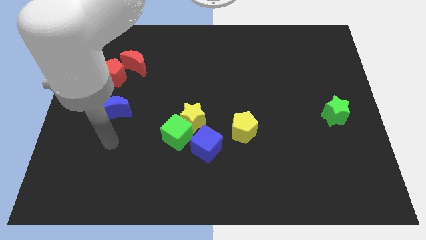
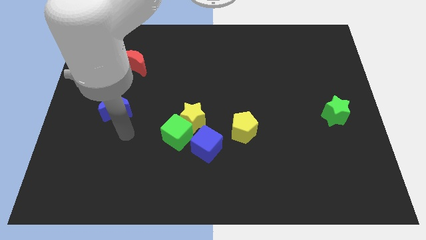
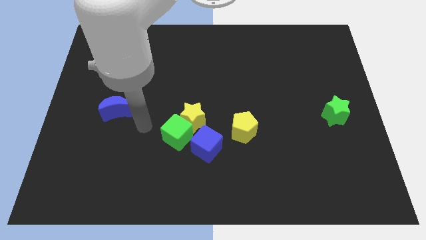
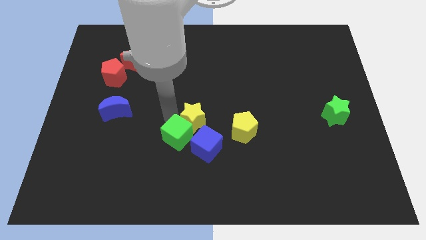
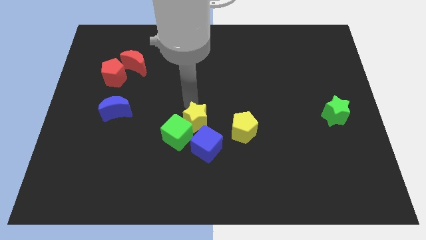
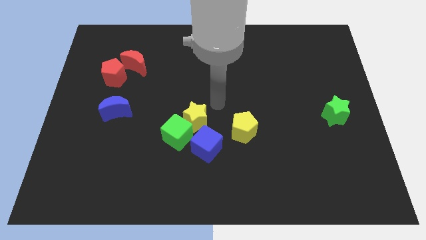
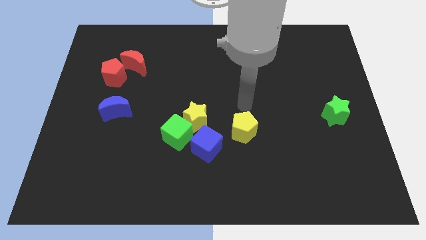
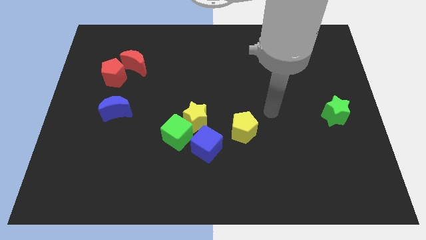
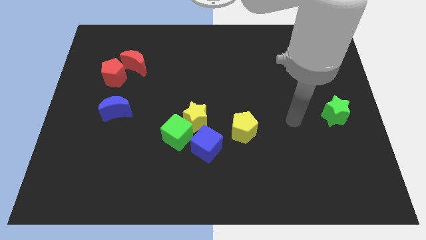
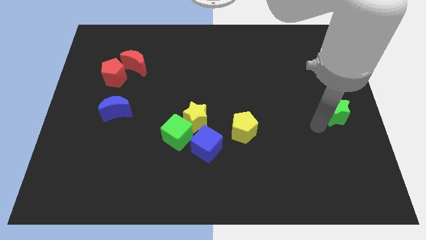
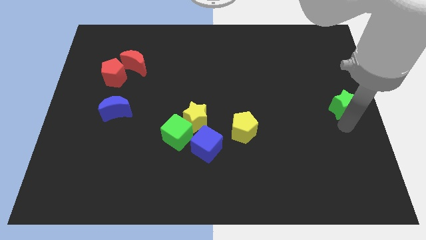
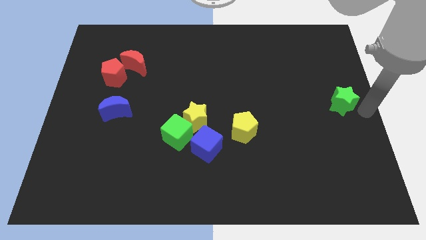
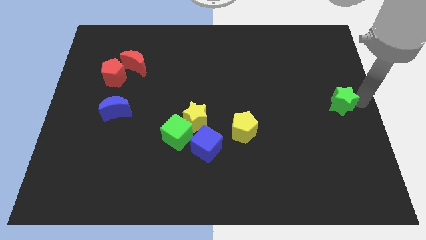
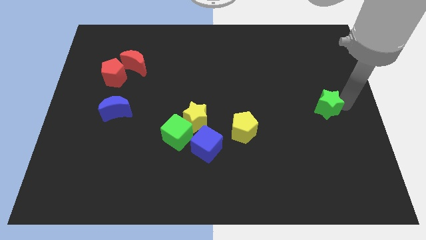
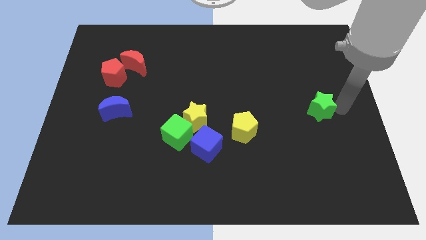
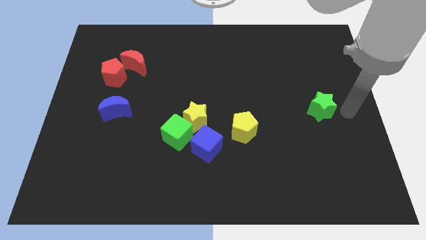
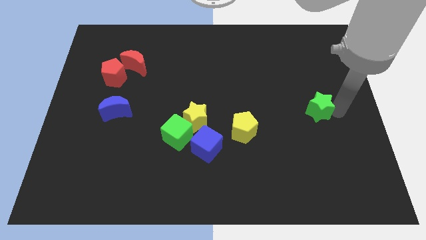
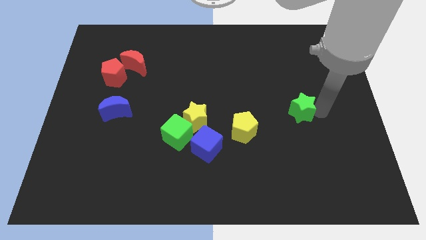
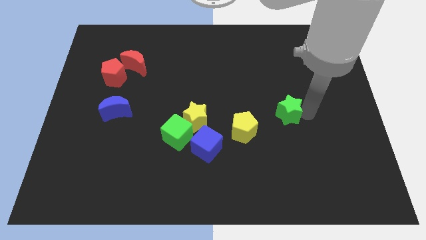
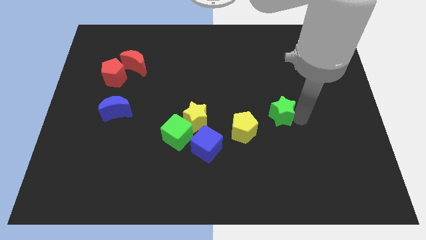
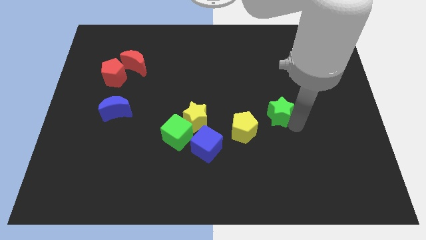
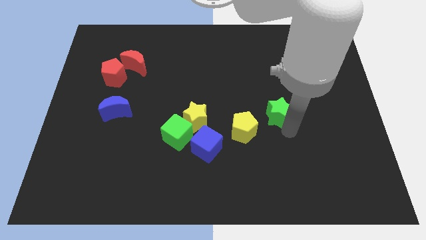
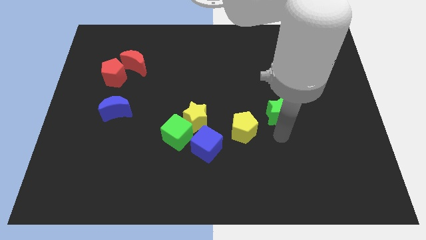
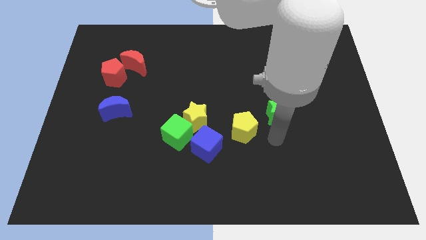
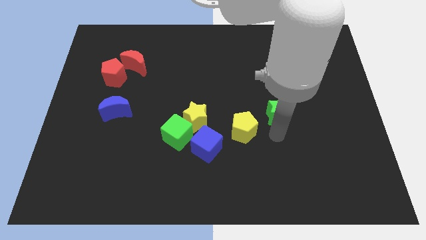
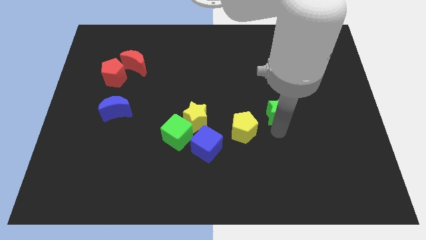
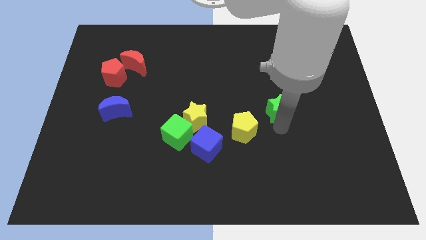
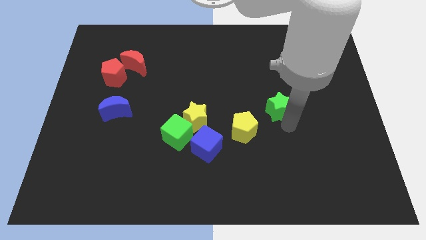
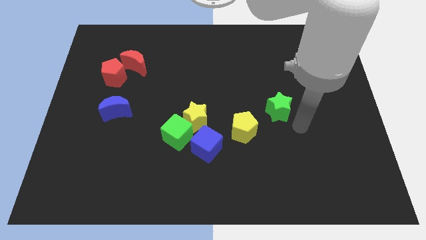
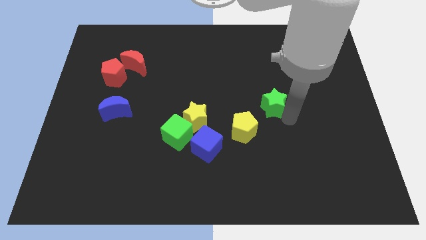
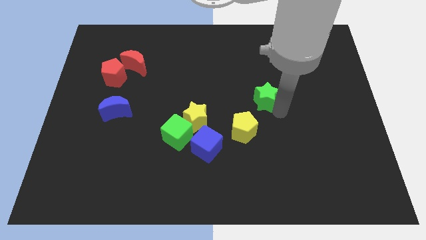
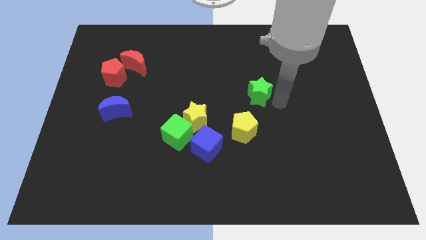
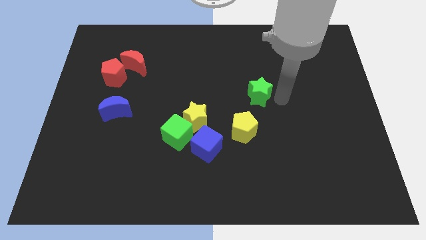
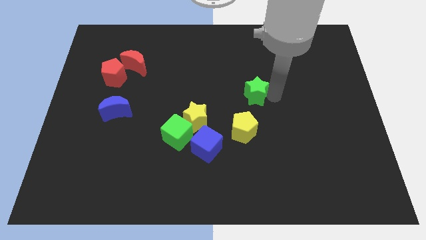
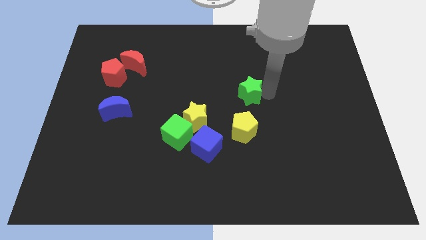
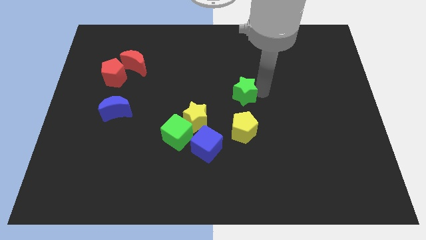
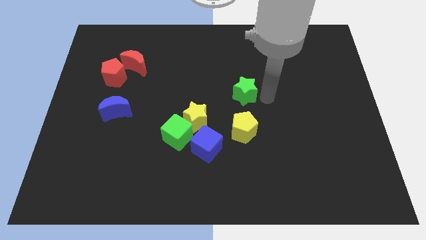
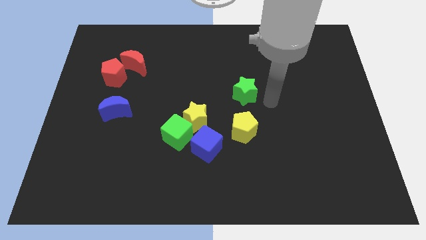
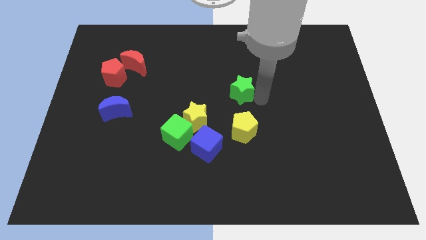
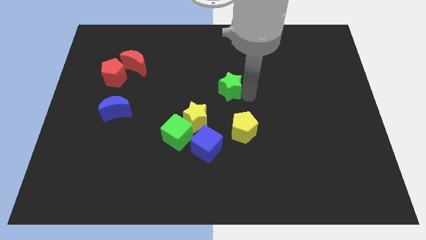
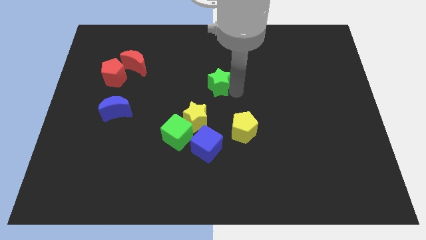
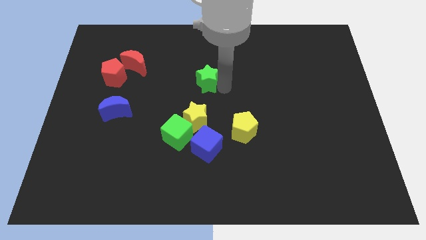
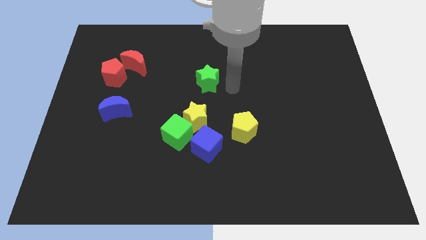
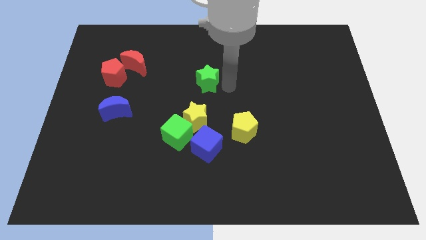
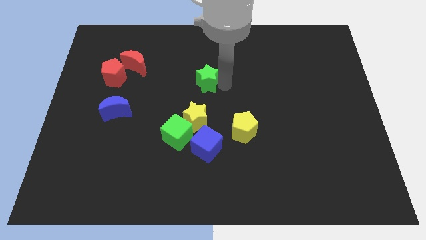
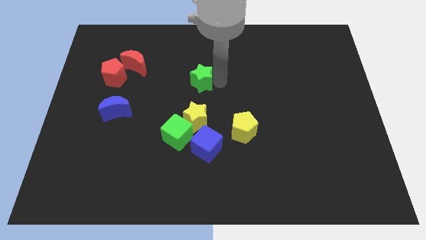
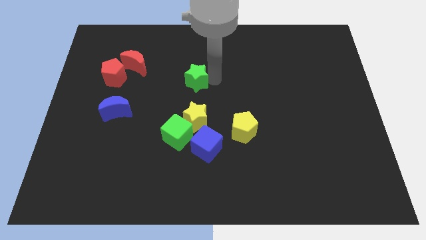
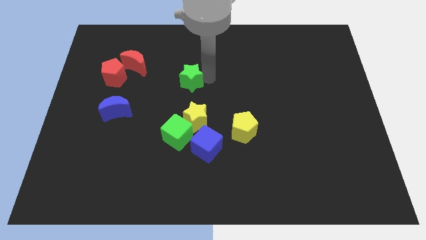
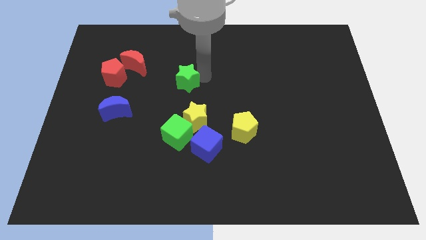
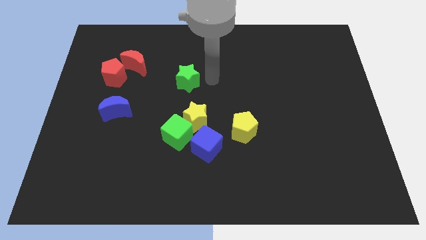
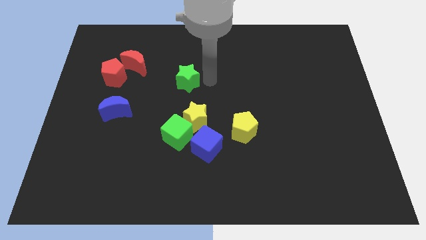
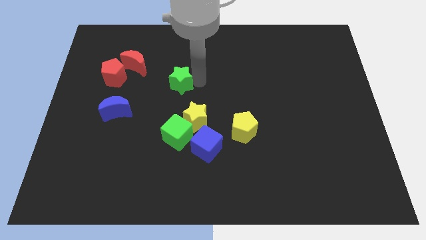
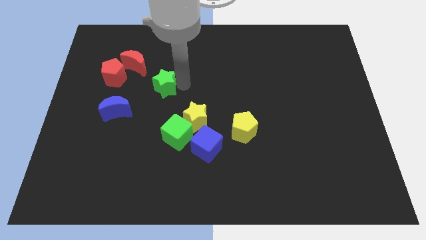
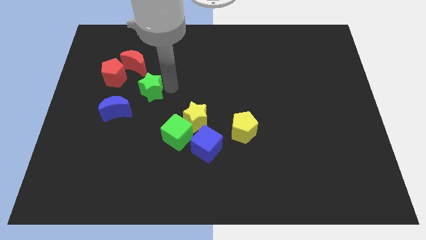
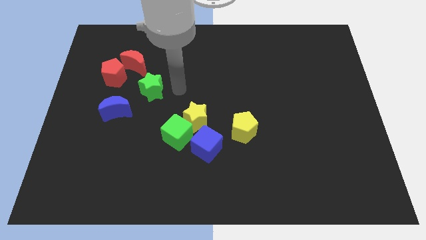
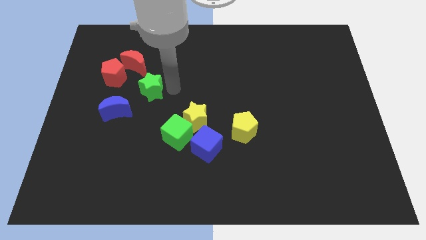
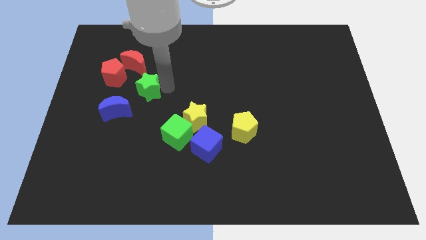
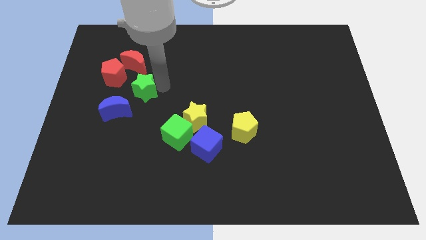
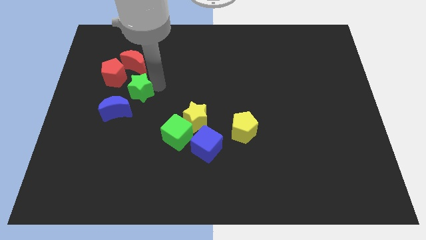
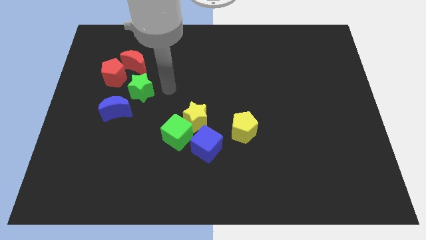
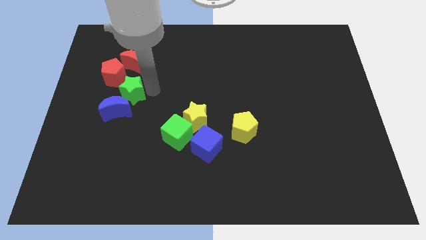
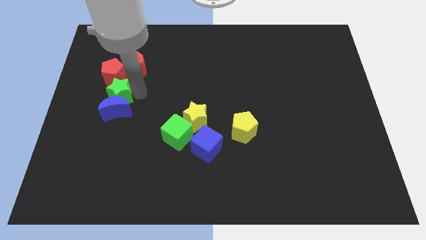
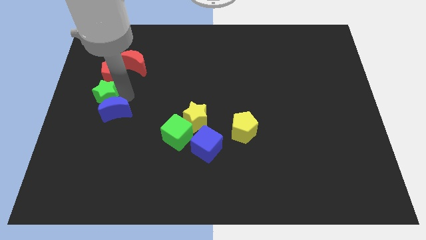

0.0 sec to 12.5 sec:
put the green star to the center left
